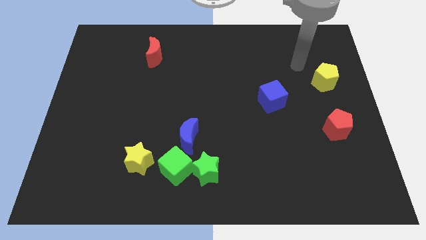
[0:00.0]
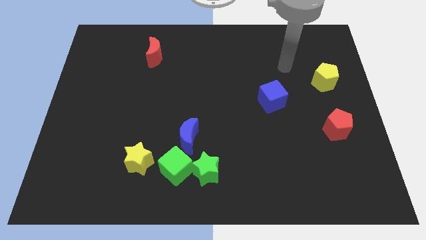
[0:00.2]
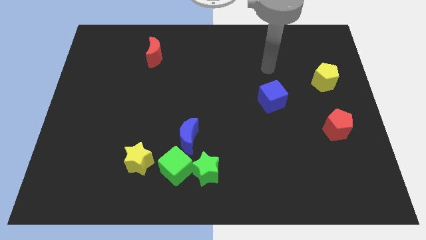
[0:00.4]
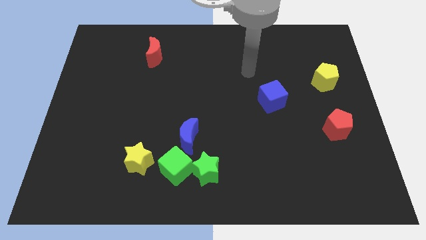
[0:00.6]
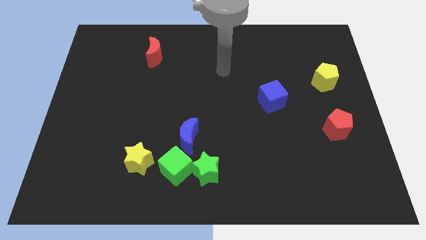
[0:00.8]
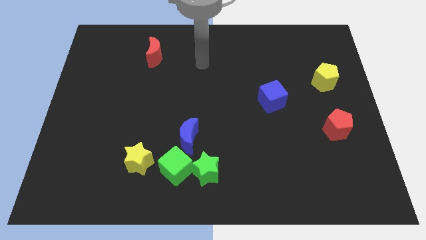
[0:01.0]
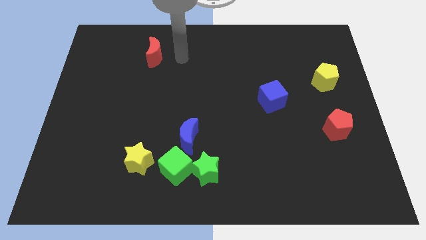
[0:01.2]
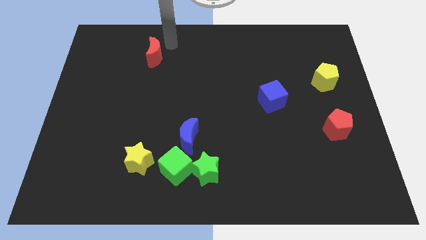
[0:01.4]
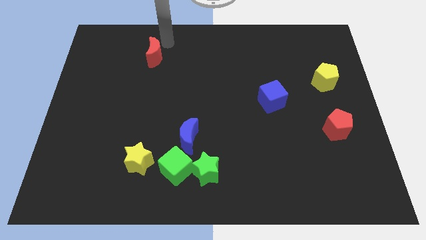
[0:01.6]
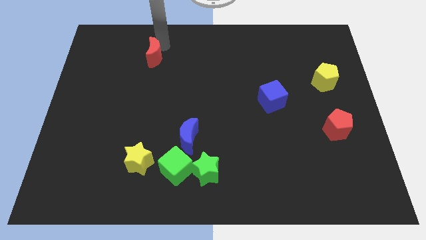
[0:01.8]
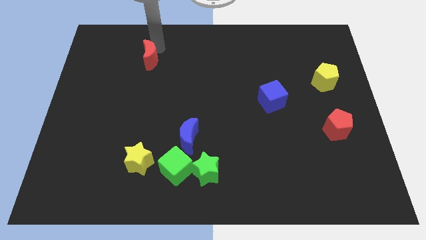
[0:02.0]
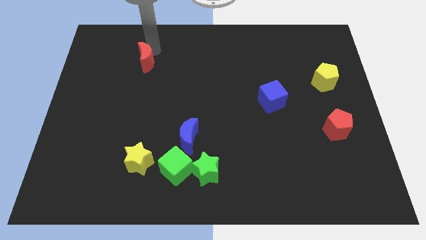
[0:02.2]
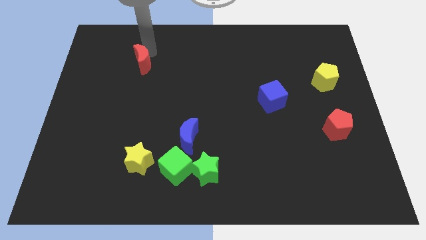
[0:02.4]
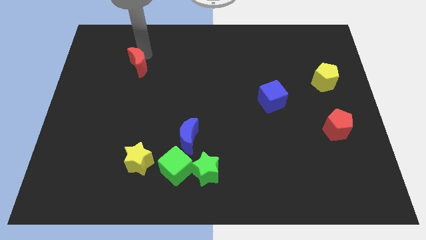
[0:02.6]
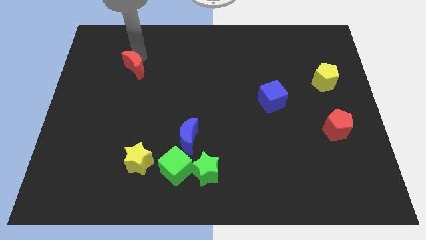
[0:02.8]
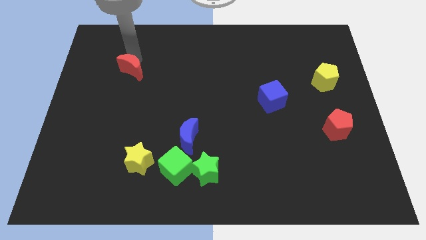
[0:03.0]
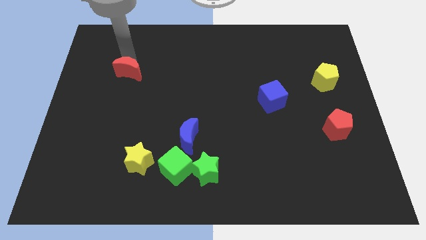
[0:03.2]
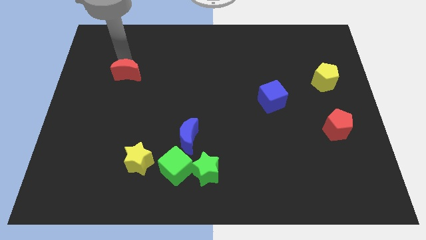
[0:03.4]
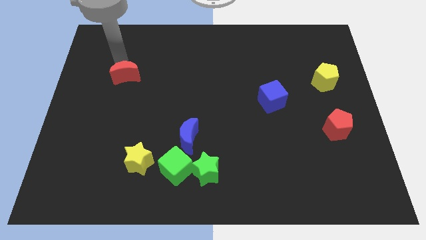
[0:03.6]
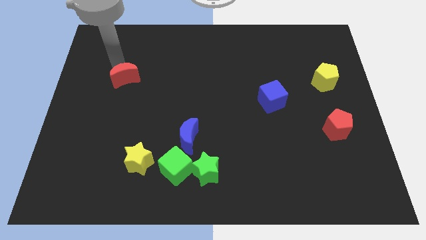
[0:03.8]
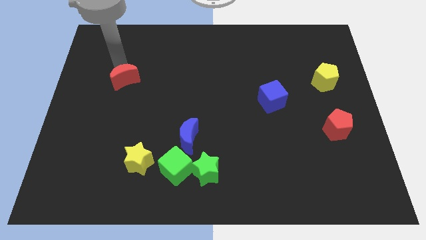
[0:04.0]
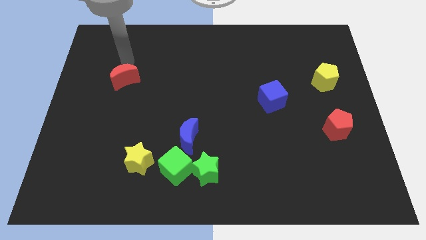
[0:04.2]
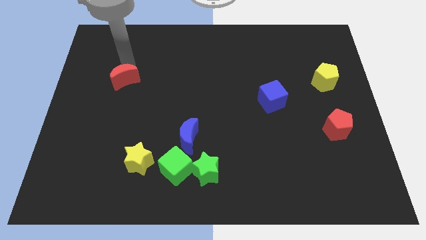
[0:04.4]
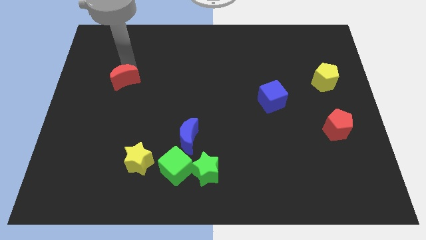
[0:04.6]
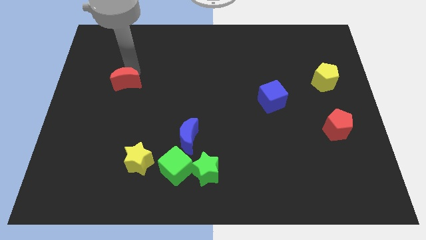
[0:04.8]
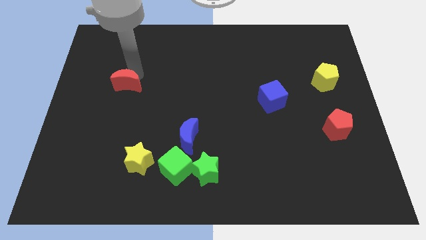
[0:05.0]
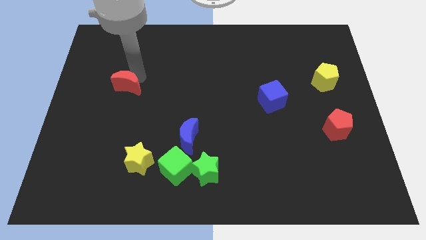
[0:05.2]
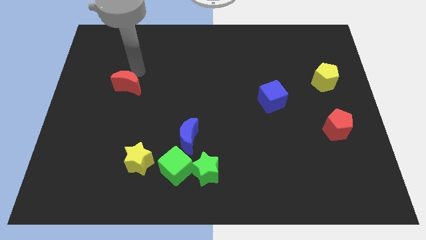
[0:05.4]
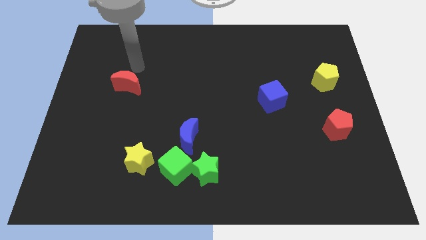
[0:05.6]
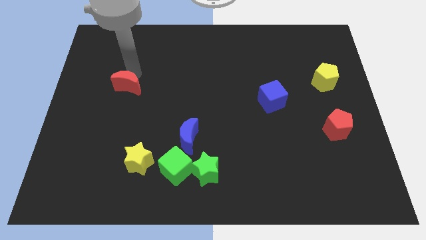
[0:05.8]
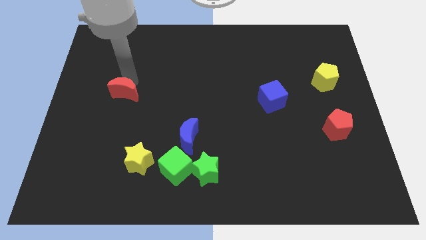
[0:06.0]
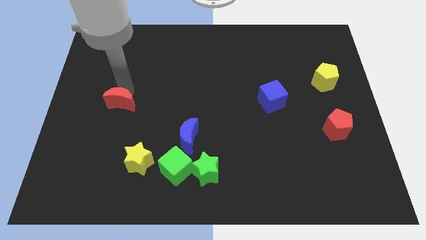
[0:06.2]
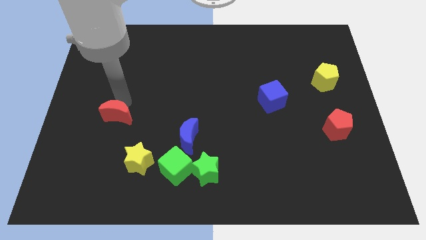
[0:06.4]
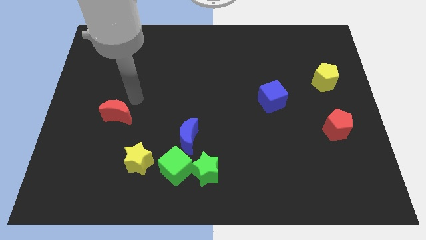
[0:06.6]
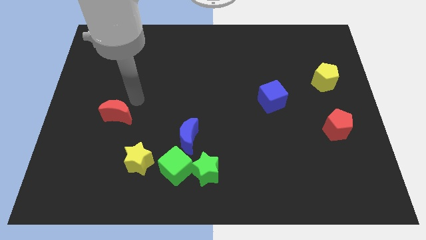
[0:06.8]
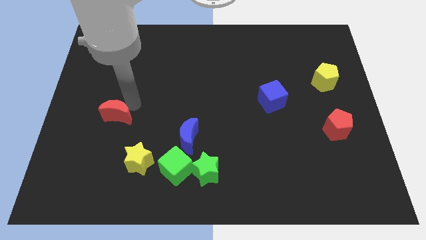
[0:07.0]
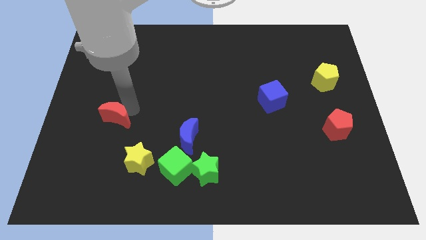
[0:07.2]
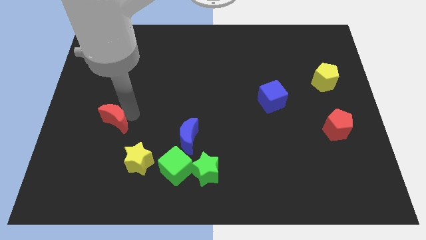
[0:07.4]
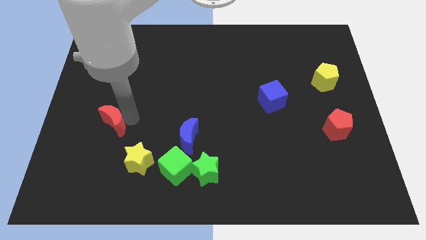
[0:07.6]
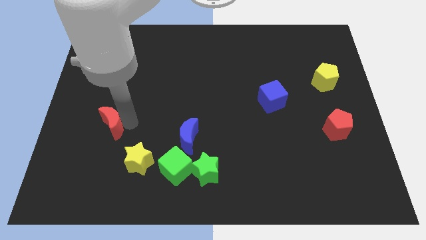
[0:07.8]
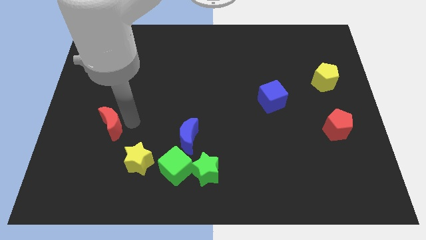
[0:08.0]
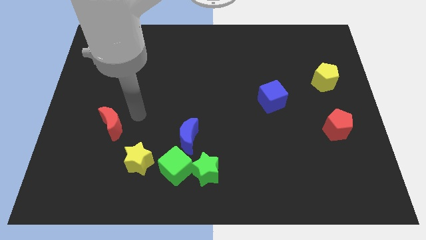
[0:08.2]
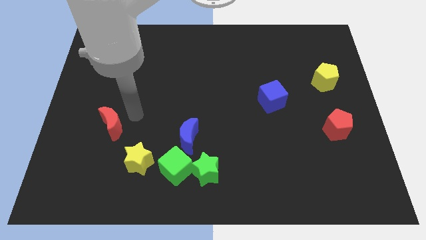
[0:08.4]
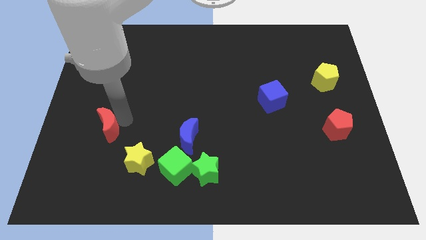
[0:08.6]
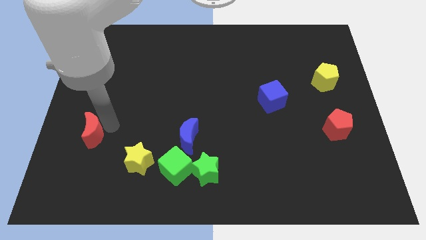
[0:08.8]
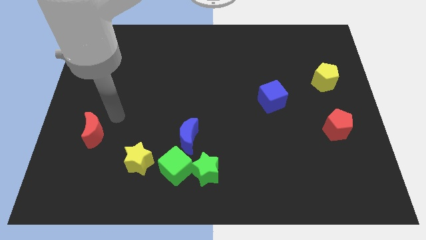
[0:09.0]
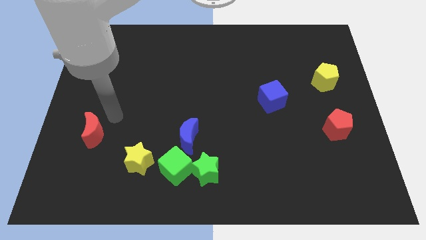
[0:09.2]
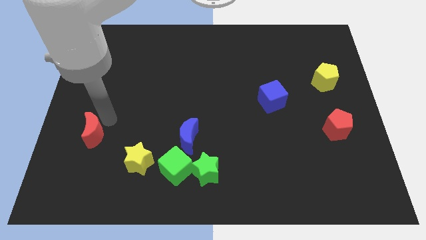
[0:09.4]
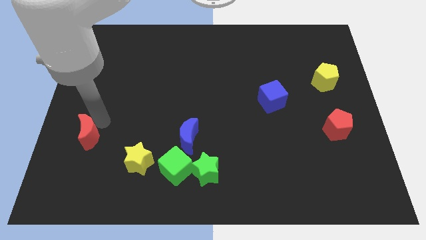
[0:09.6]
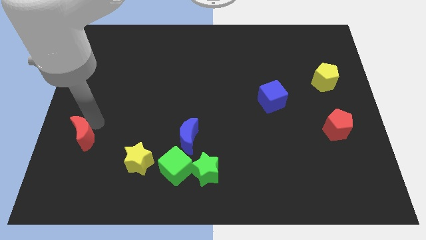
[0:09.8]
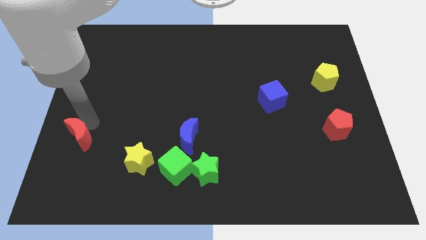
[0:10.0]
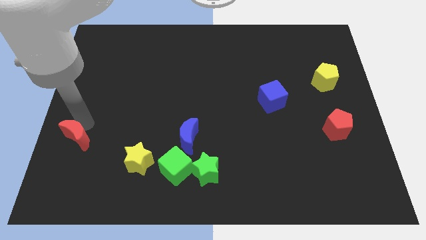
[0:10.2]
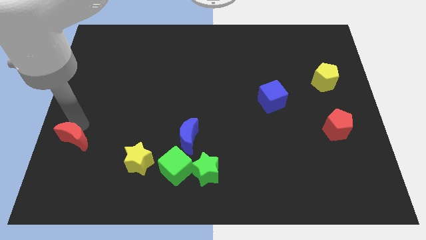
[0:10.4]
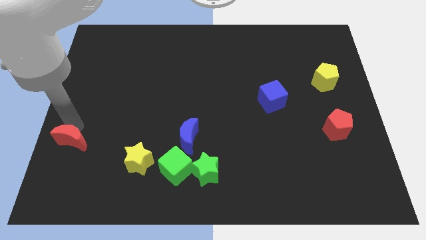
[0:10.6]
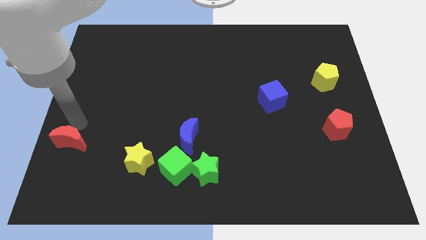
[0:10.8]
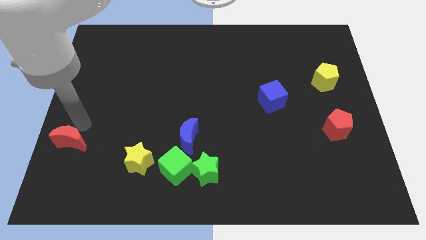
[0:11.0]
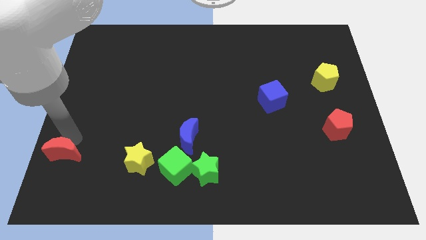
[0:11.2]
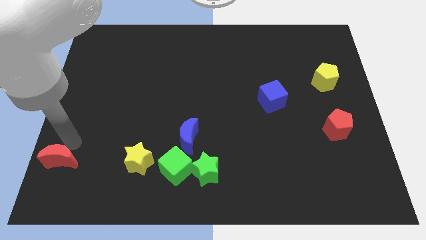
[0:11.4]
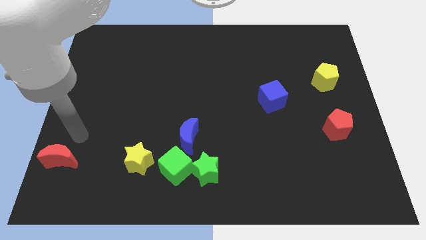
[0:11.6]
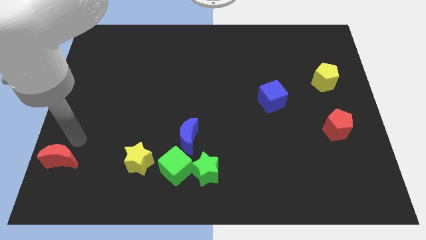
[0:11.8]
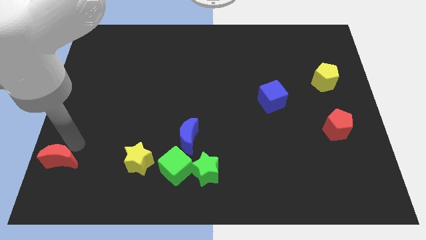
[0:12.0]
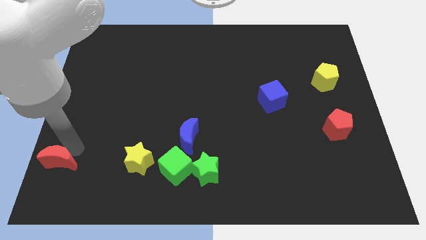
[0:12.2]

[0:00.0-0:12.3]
put the red moon to the bottom left of the board
